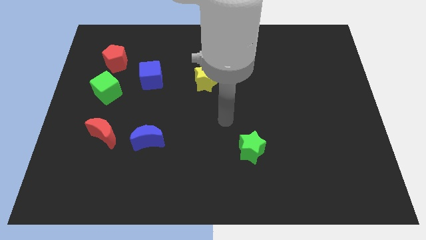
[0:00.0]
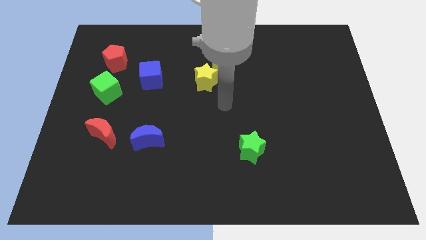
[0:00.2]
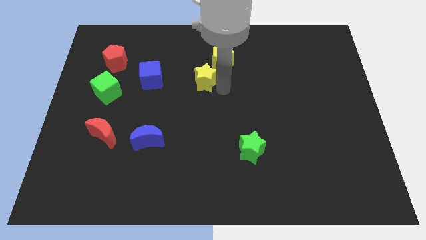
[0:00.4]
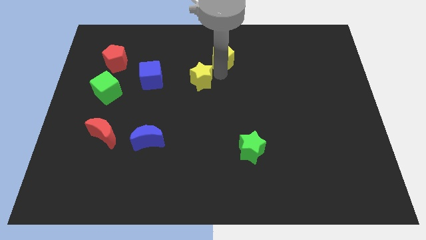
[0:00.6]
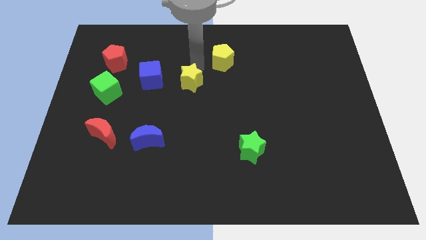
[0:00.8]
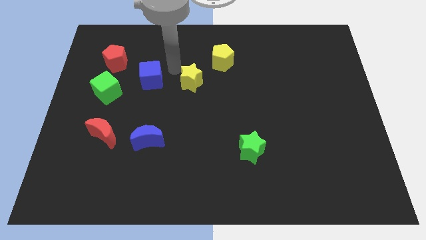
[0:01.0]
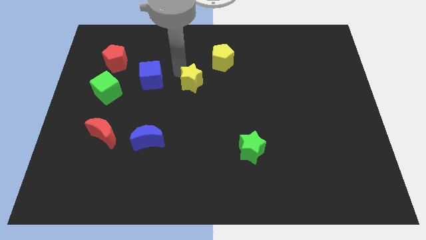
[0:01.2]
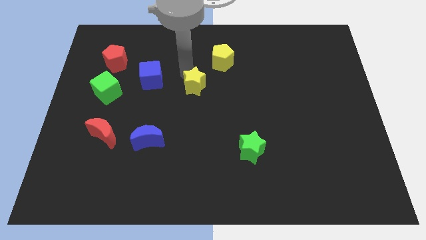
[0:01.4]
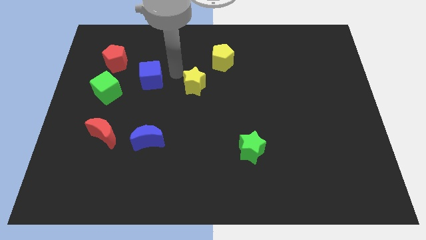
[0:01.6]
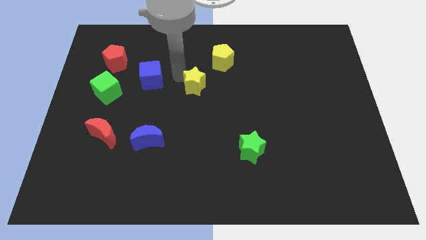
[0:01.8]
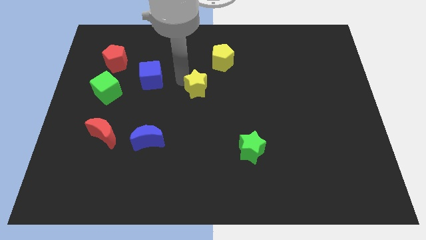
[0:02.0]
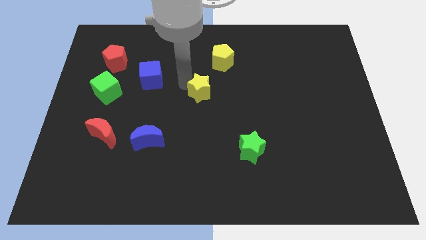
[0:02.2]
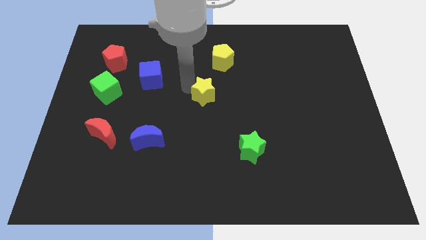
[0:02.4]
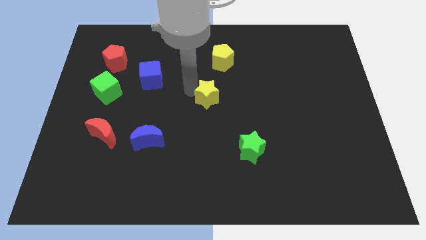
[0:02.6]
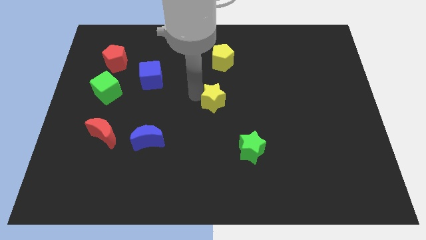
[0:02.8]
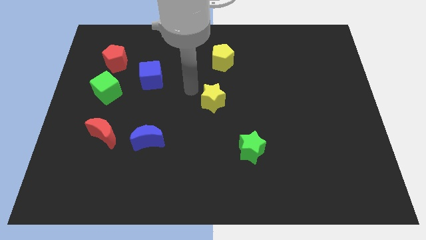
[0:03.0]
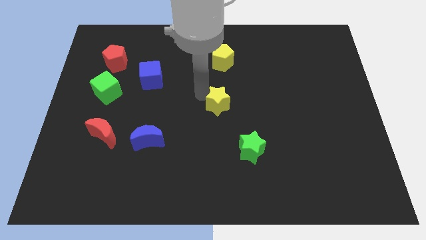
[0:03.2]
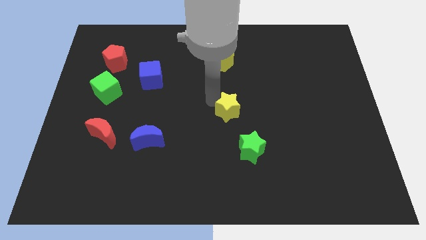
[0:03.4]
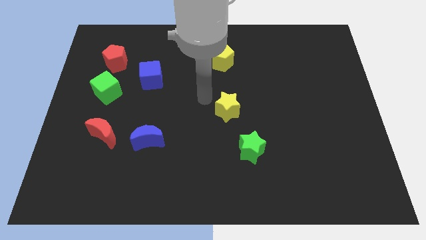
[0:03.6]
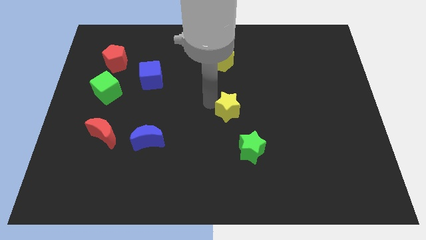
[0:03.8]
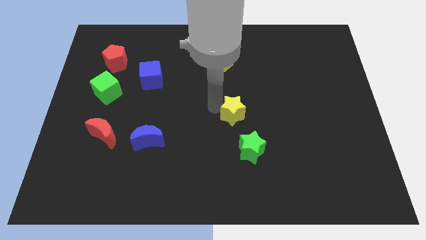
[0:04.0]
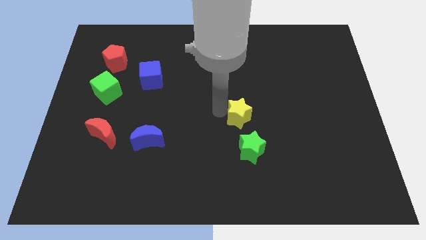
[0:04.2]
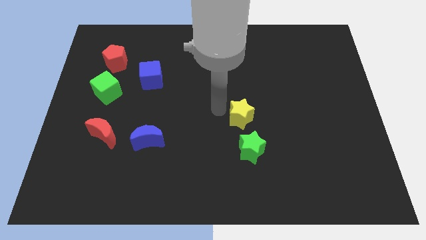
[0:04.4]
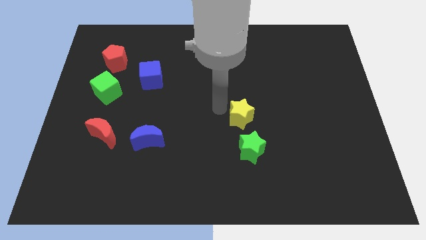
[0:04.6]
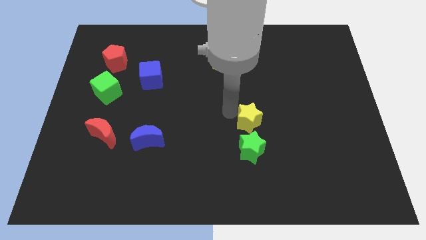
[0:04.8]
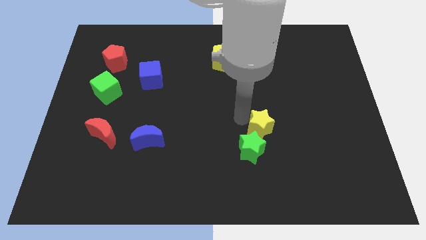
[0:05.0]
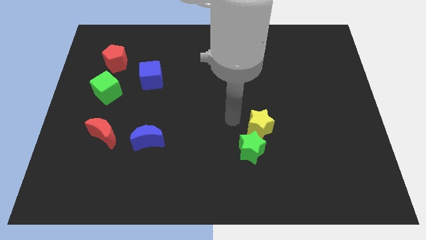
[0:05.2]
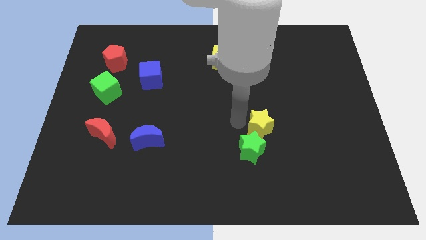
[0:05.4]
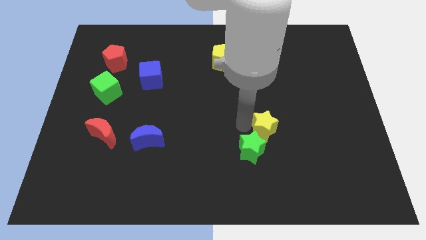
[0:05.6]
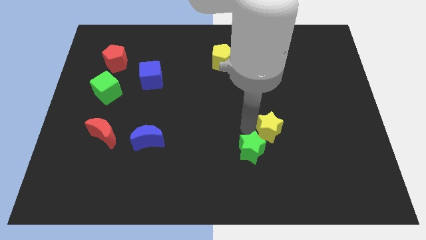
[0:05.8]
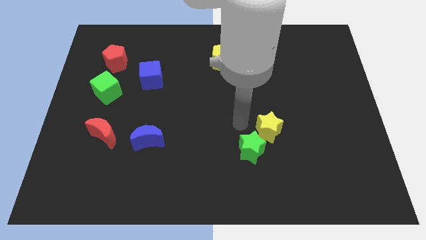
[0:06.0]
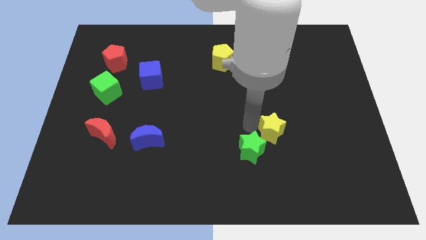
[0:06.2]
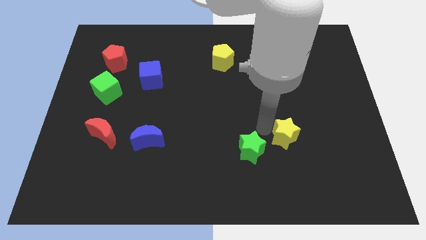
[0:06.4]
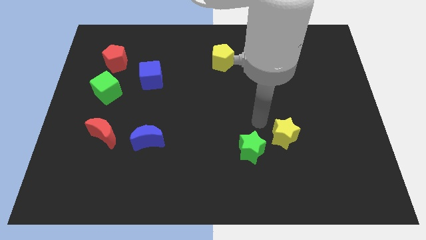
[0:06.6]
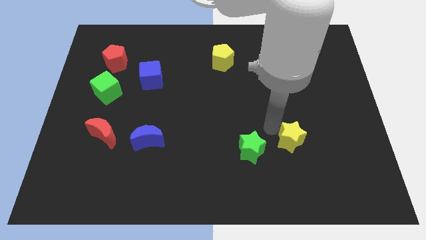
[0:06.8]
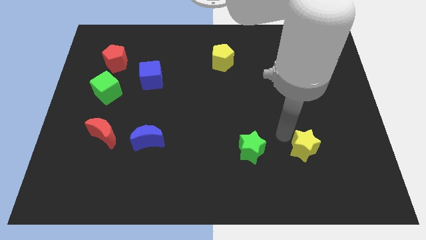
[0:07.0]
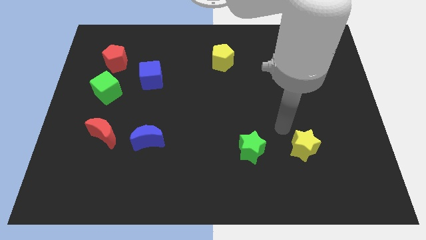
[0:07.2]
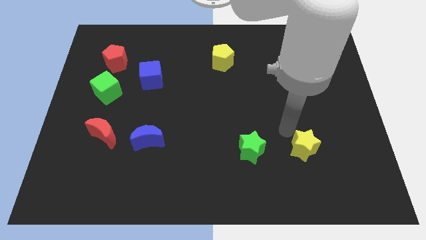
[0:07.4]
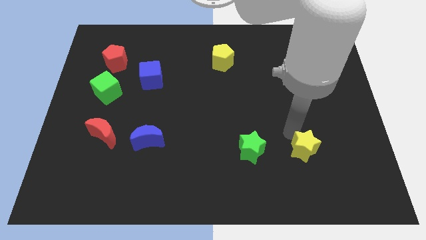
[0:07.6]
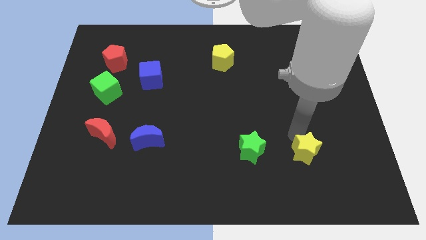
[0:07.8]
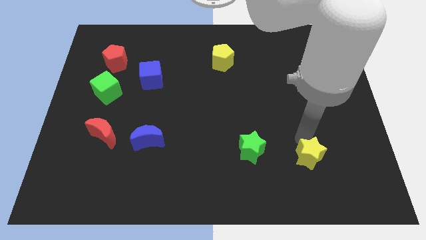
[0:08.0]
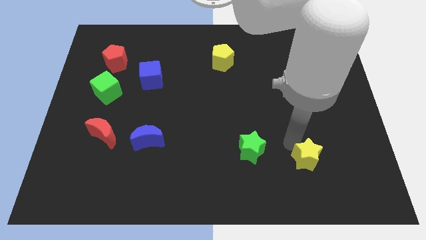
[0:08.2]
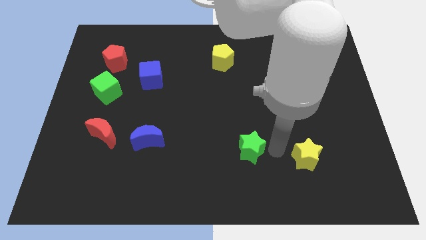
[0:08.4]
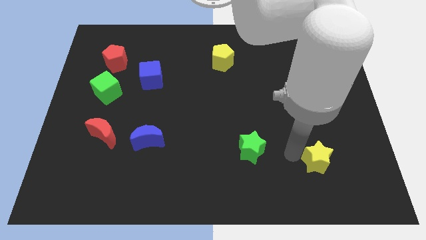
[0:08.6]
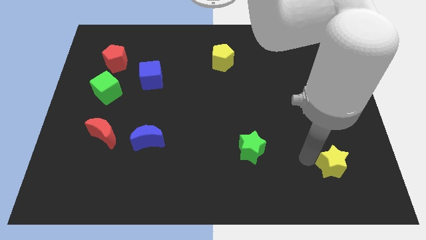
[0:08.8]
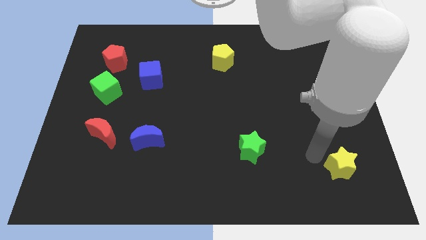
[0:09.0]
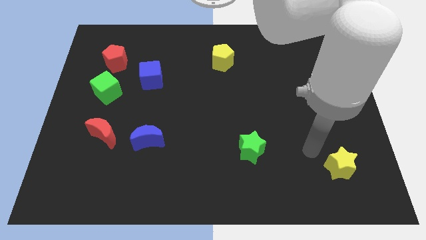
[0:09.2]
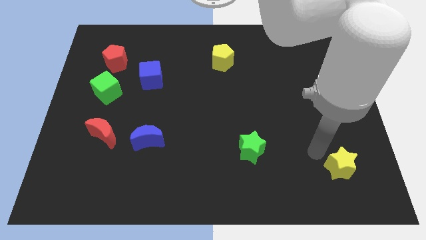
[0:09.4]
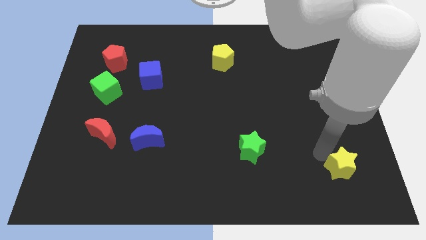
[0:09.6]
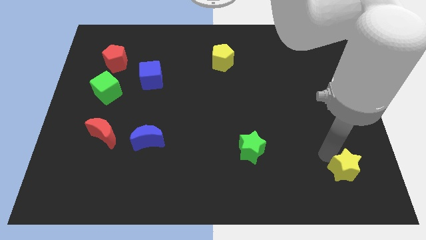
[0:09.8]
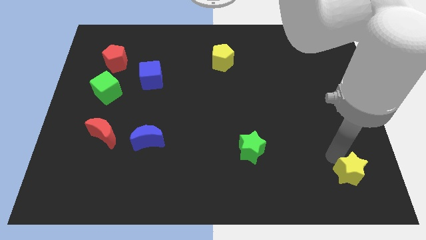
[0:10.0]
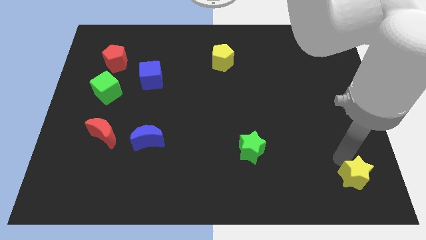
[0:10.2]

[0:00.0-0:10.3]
slide the yellow star to the lower right corner

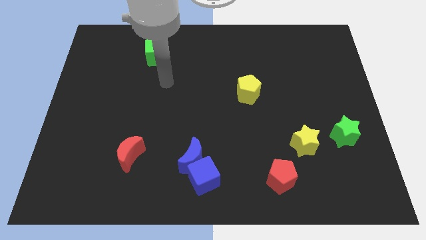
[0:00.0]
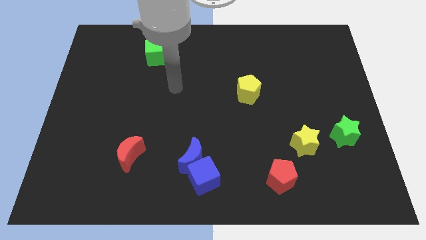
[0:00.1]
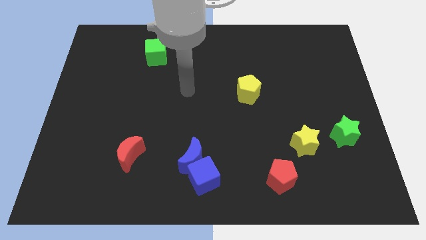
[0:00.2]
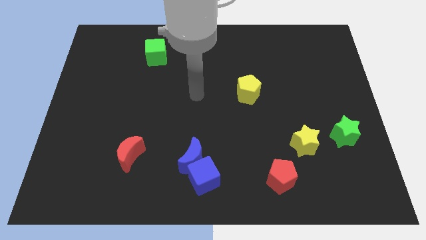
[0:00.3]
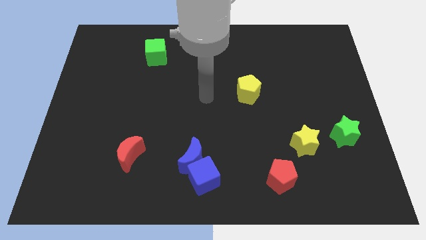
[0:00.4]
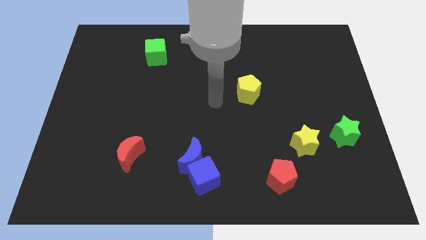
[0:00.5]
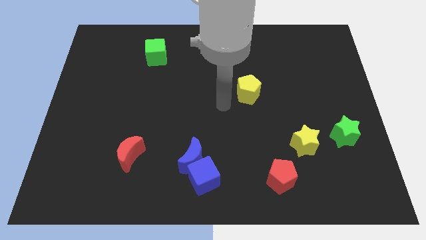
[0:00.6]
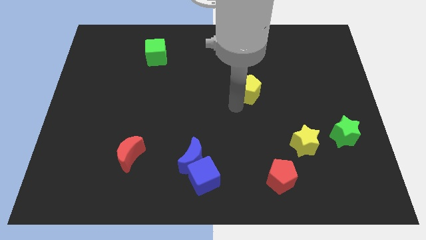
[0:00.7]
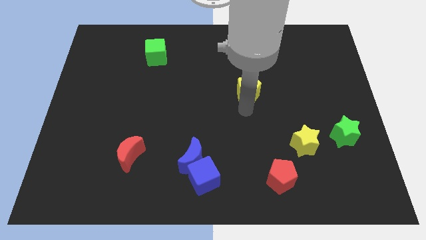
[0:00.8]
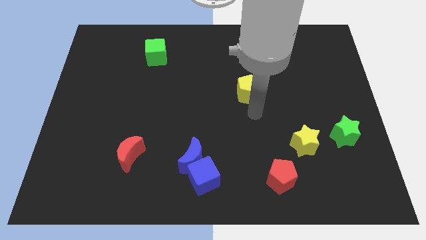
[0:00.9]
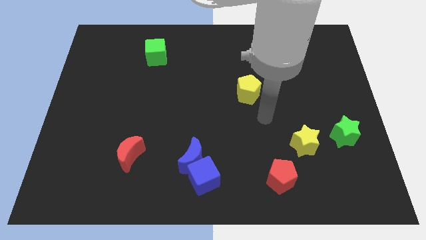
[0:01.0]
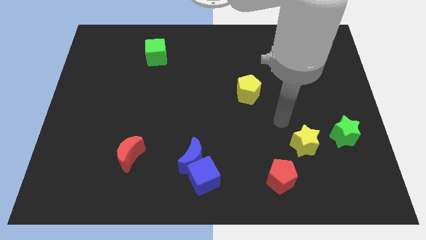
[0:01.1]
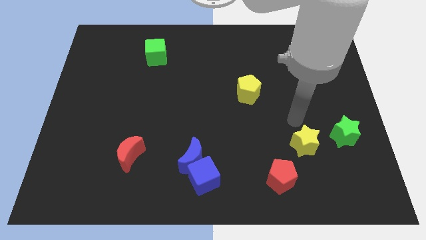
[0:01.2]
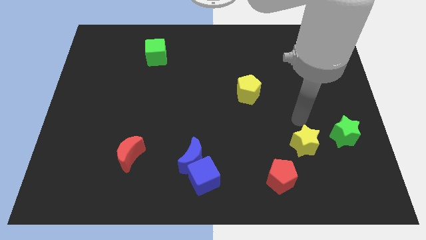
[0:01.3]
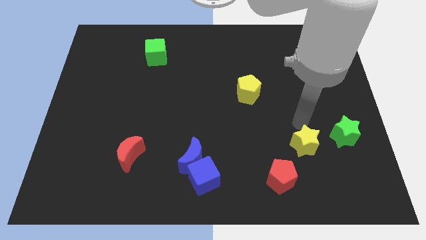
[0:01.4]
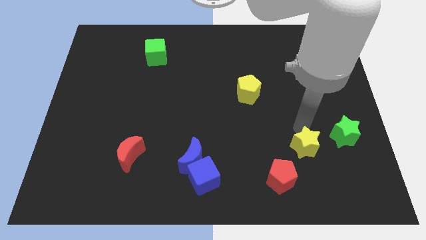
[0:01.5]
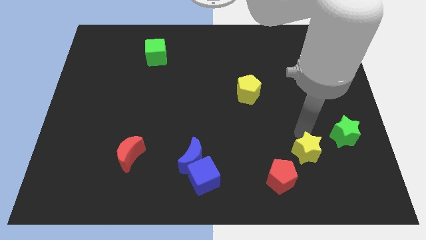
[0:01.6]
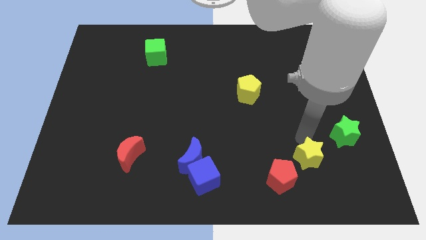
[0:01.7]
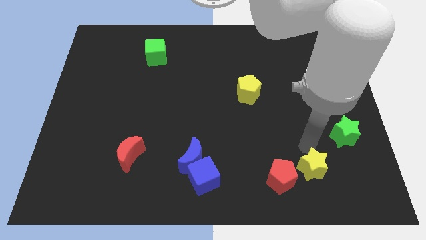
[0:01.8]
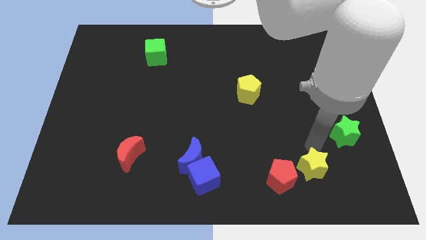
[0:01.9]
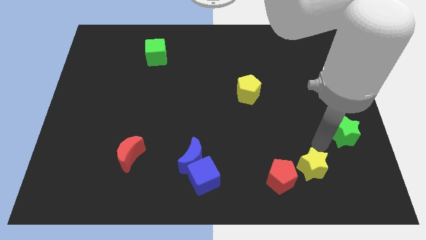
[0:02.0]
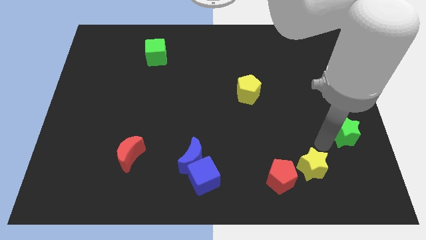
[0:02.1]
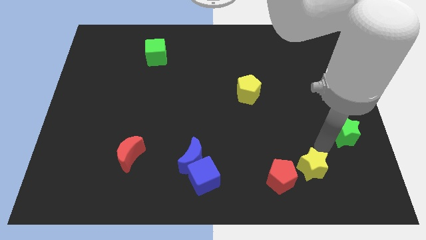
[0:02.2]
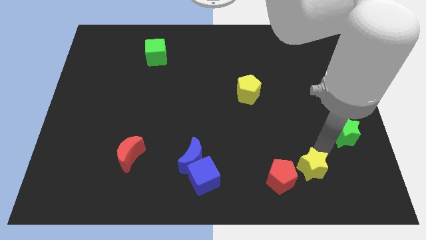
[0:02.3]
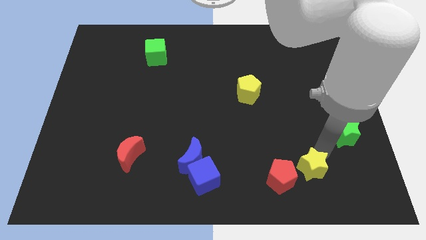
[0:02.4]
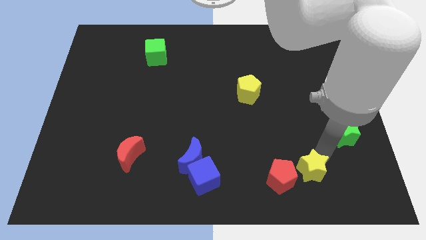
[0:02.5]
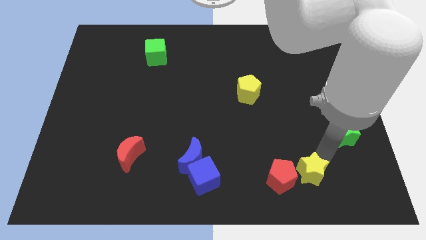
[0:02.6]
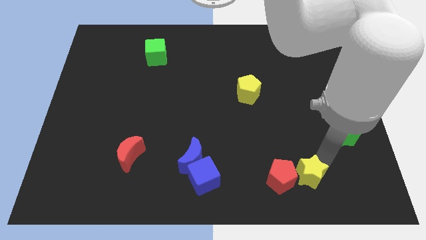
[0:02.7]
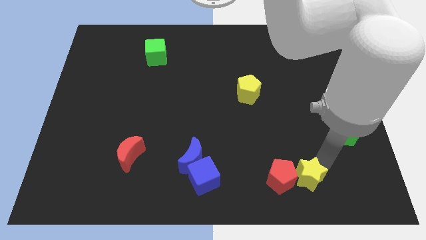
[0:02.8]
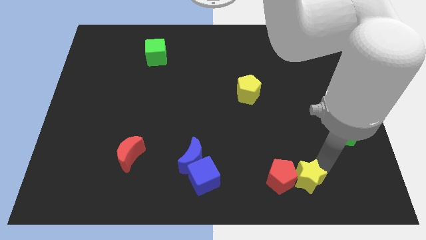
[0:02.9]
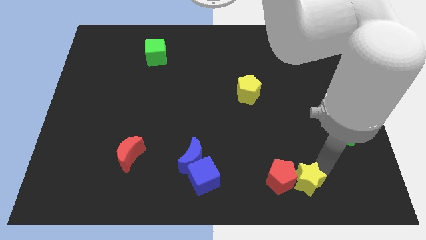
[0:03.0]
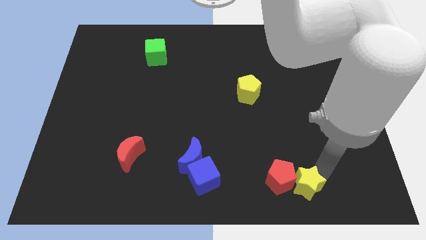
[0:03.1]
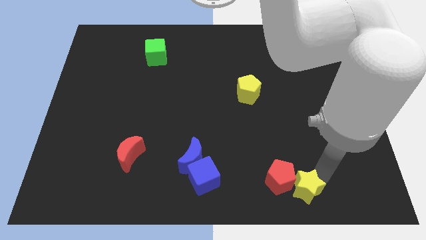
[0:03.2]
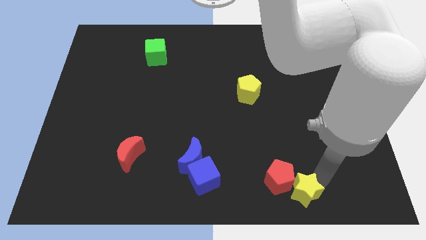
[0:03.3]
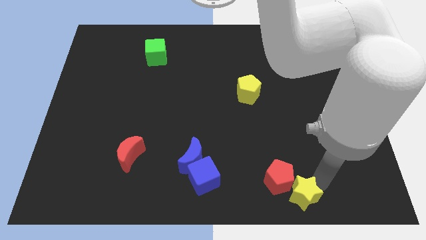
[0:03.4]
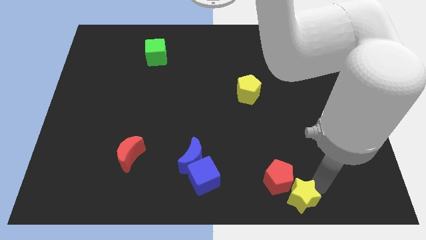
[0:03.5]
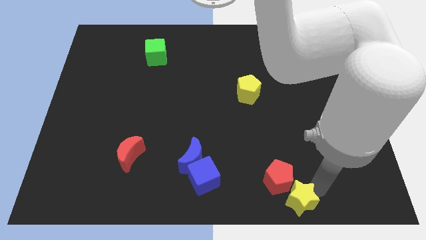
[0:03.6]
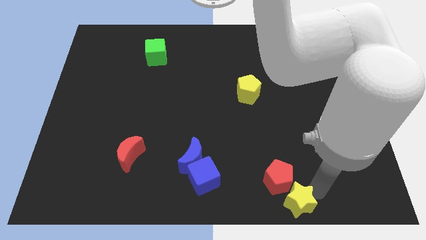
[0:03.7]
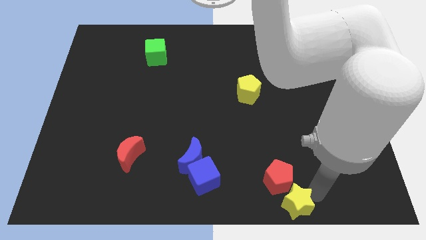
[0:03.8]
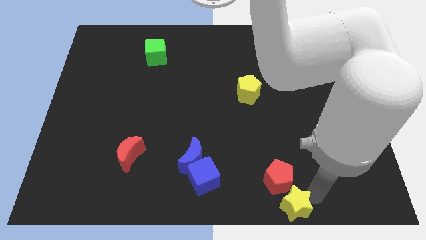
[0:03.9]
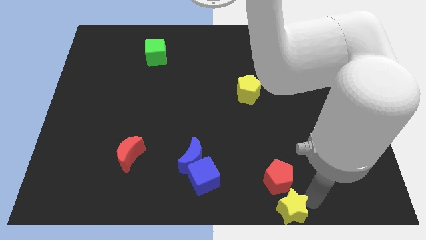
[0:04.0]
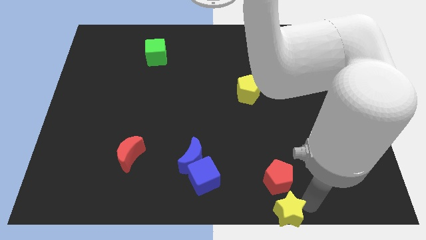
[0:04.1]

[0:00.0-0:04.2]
push the yellow star to the bottom
